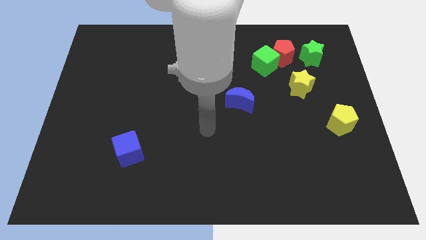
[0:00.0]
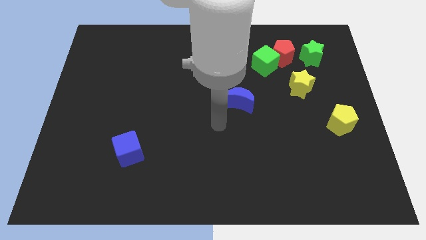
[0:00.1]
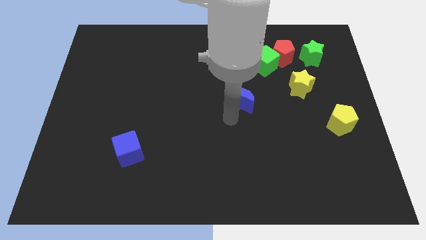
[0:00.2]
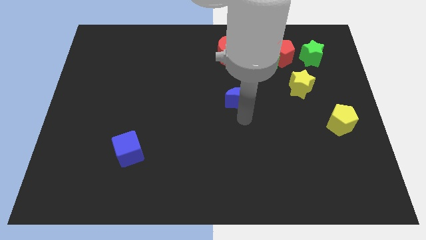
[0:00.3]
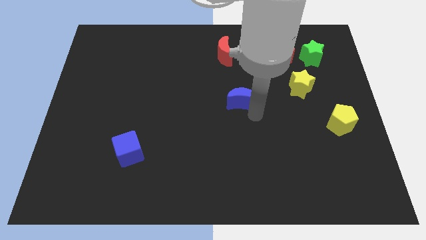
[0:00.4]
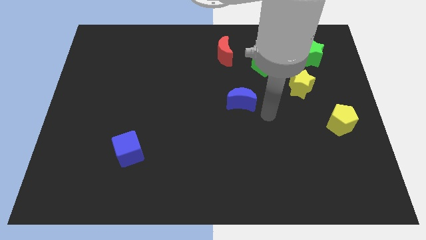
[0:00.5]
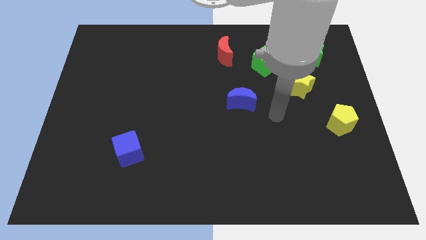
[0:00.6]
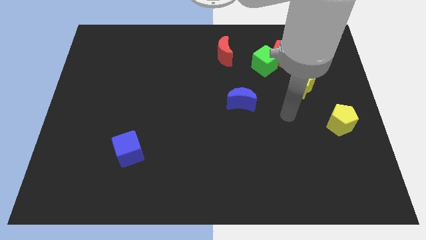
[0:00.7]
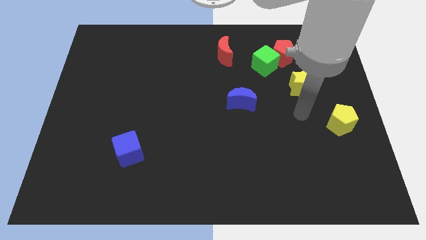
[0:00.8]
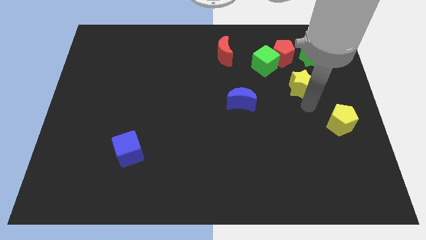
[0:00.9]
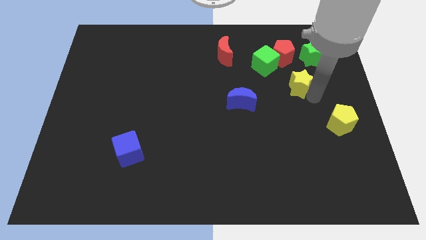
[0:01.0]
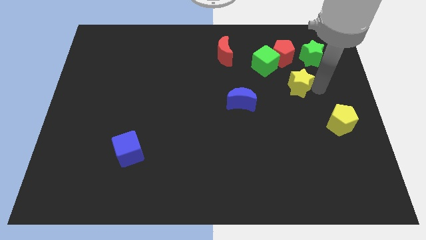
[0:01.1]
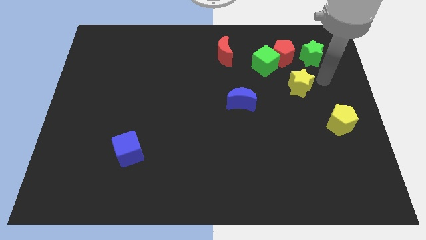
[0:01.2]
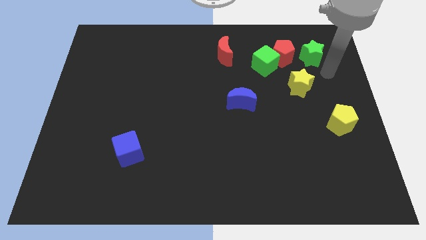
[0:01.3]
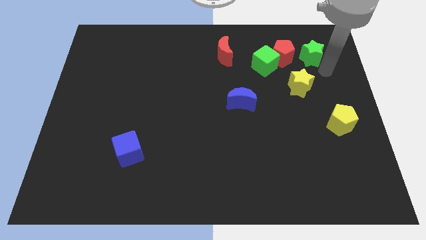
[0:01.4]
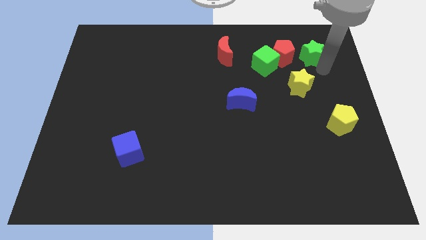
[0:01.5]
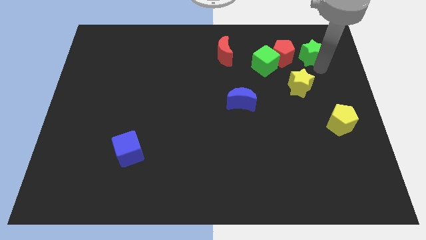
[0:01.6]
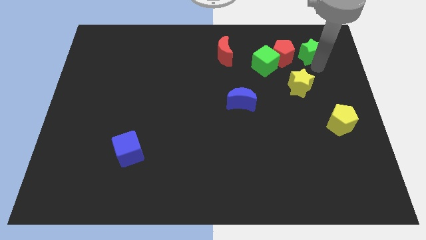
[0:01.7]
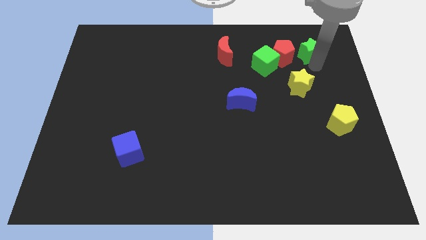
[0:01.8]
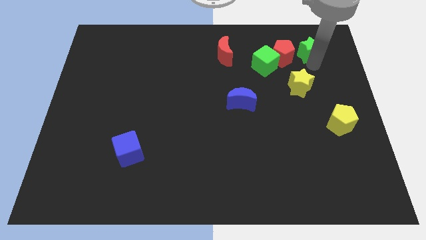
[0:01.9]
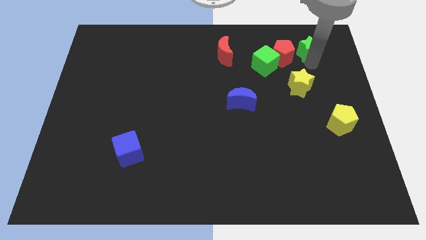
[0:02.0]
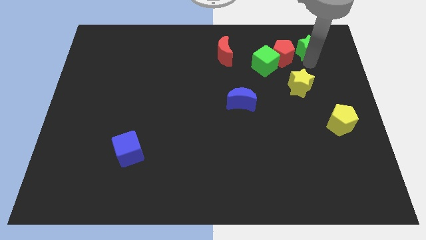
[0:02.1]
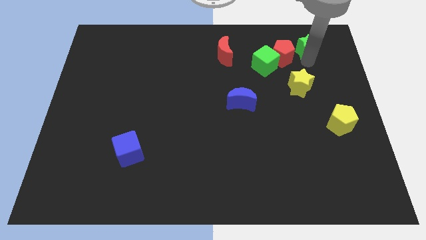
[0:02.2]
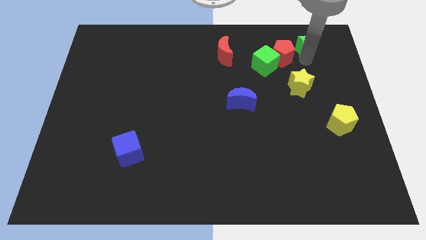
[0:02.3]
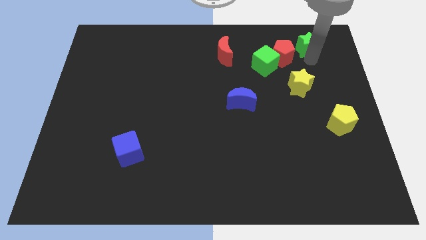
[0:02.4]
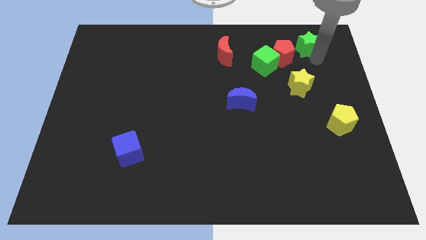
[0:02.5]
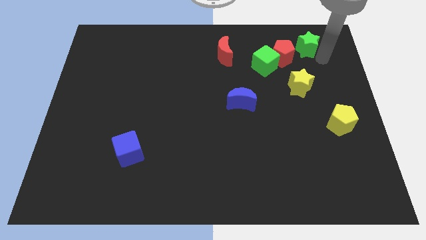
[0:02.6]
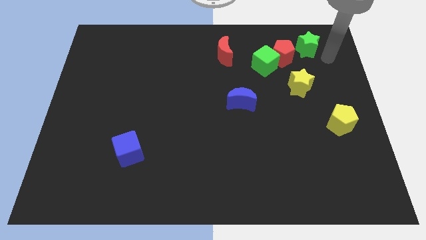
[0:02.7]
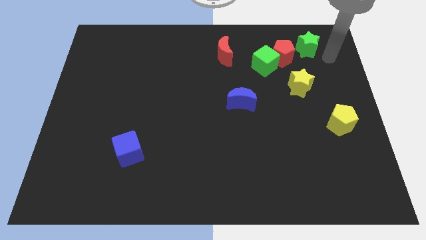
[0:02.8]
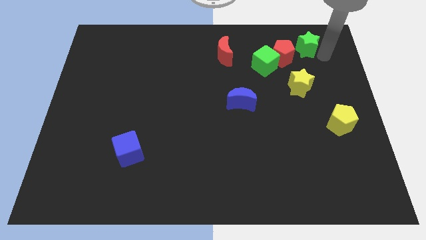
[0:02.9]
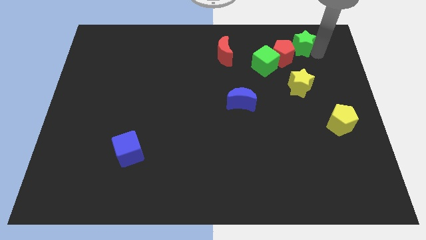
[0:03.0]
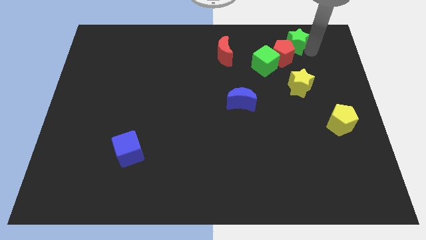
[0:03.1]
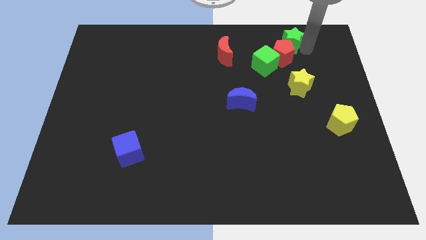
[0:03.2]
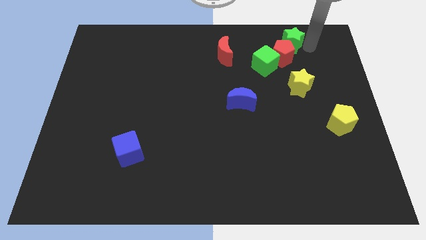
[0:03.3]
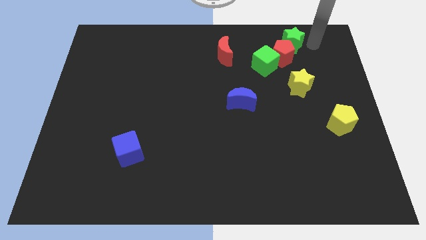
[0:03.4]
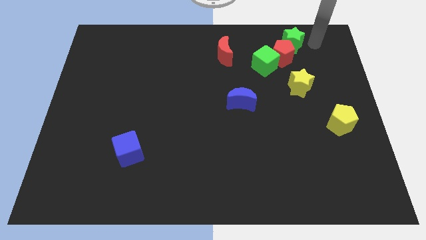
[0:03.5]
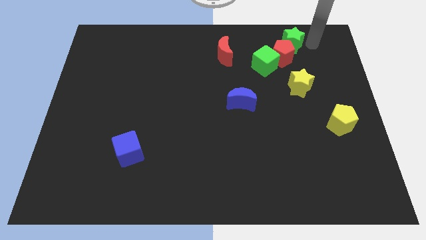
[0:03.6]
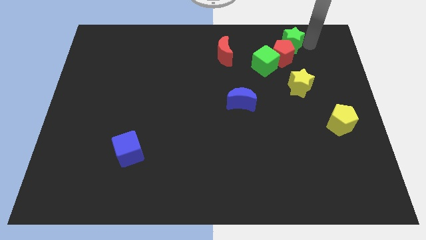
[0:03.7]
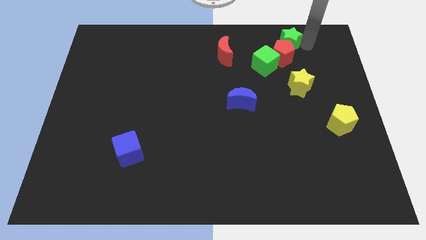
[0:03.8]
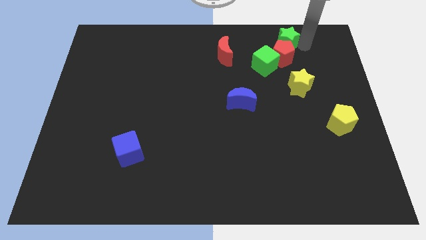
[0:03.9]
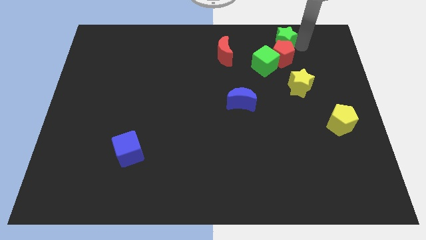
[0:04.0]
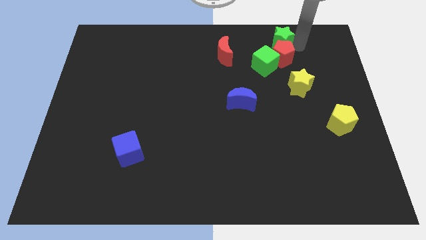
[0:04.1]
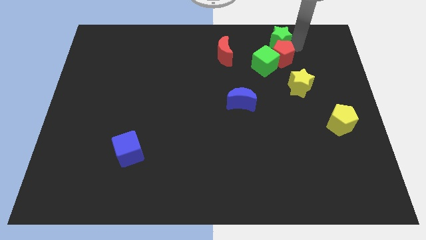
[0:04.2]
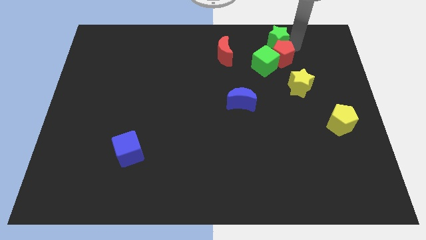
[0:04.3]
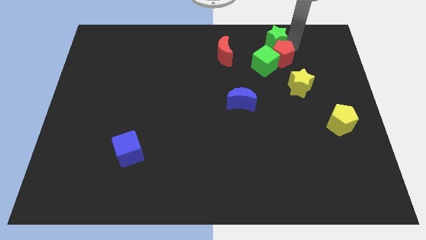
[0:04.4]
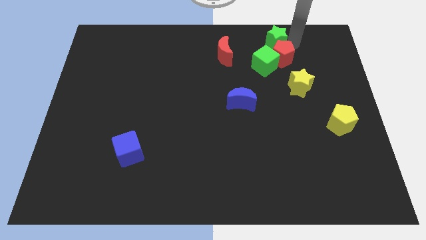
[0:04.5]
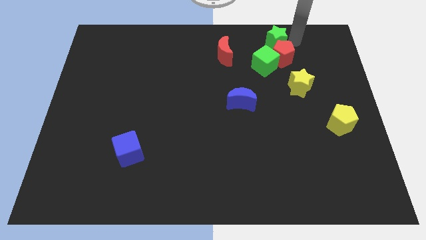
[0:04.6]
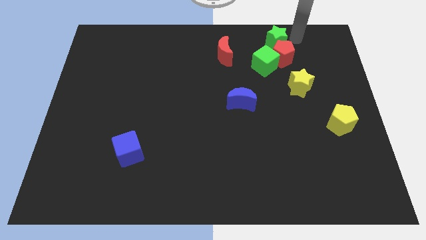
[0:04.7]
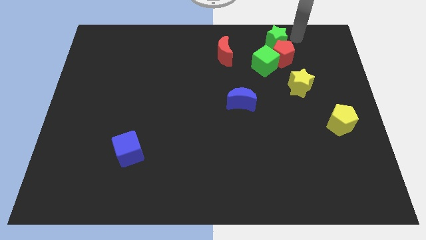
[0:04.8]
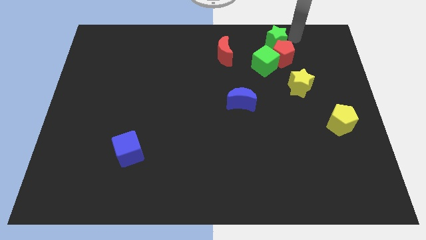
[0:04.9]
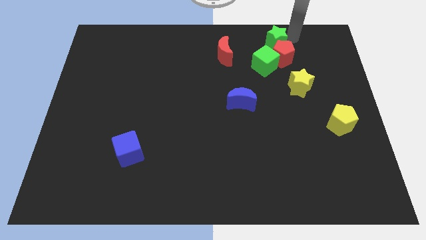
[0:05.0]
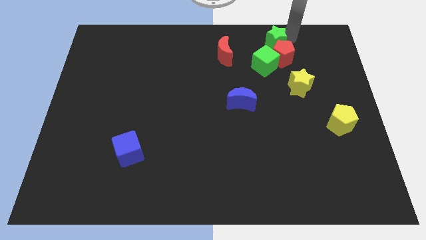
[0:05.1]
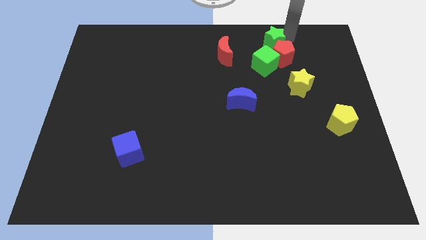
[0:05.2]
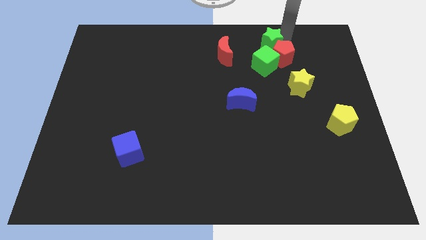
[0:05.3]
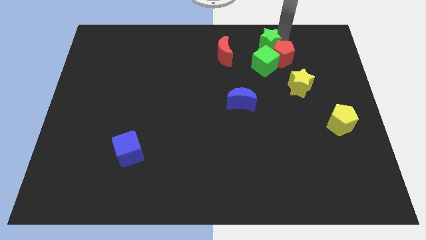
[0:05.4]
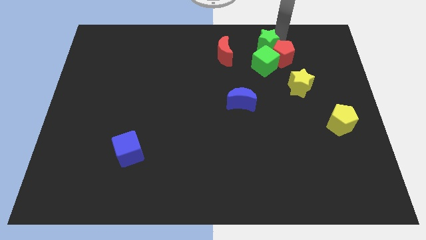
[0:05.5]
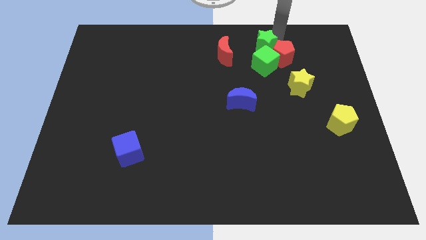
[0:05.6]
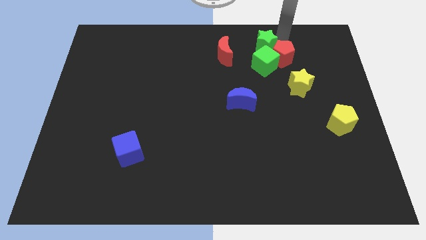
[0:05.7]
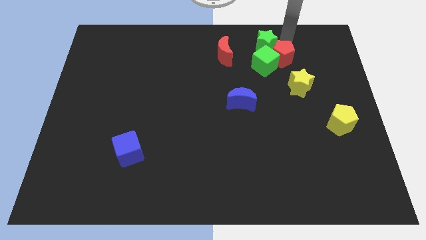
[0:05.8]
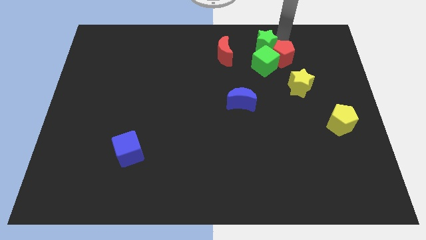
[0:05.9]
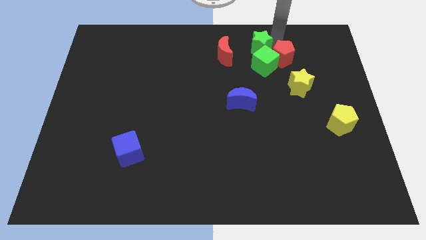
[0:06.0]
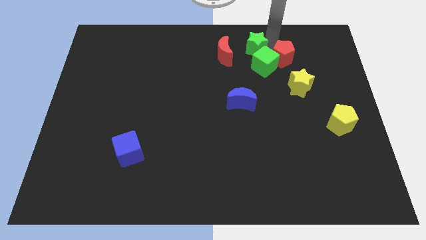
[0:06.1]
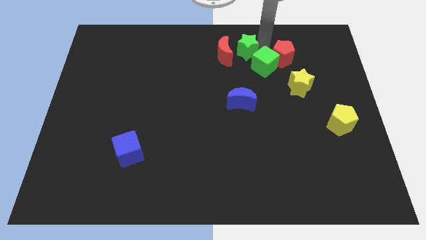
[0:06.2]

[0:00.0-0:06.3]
slide the green star close to the red moon

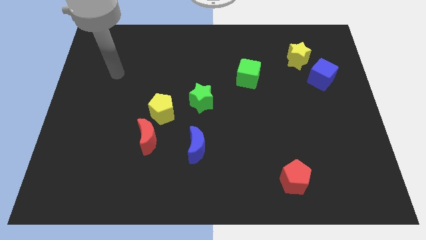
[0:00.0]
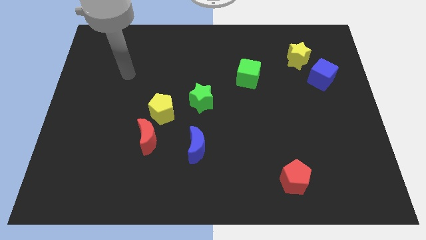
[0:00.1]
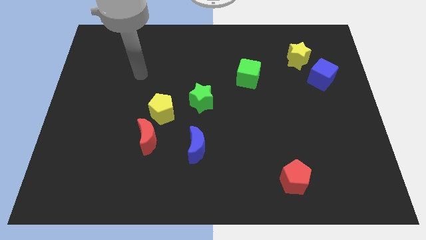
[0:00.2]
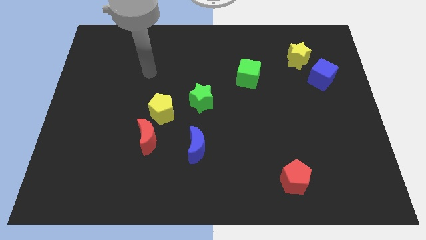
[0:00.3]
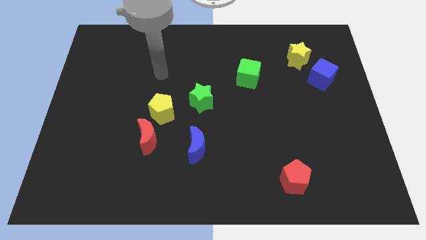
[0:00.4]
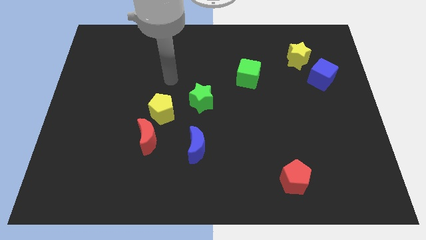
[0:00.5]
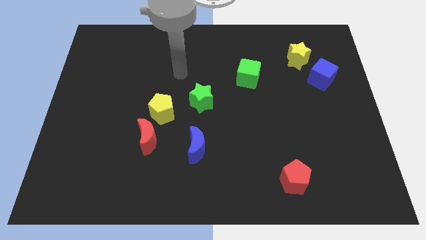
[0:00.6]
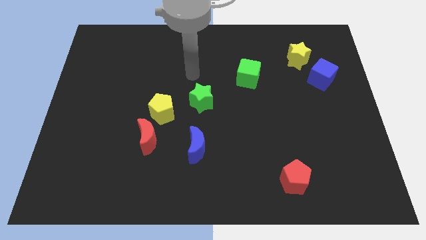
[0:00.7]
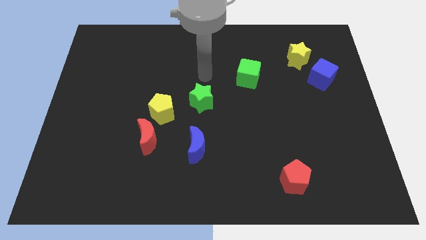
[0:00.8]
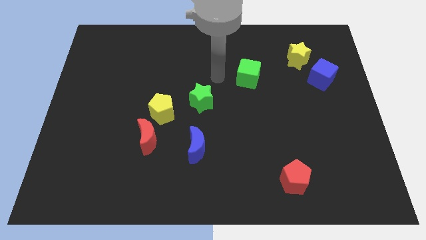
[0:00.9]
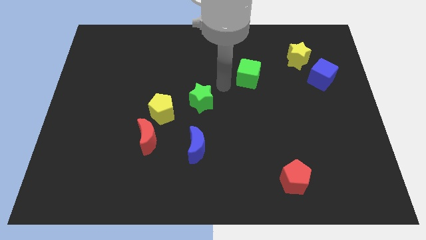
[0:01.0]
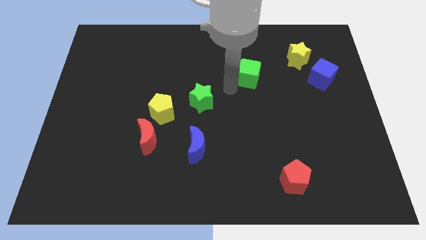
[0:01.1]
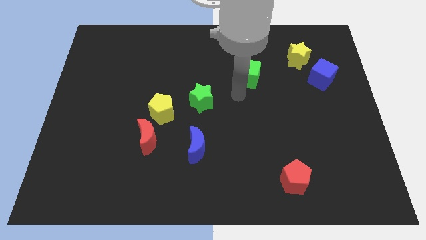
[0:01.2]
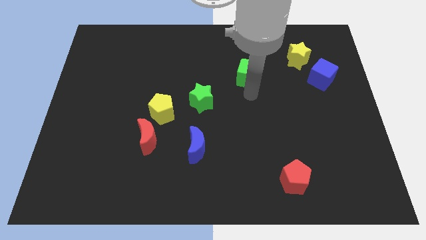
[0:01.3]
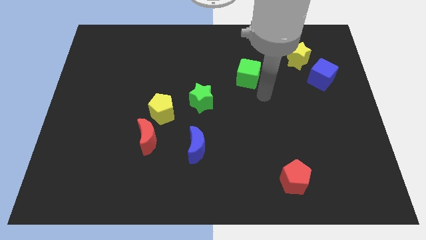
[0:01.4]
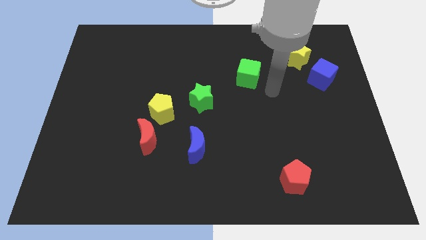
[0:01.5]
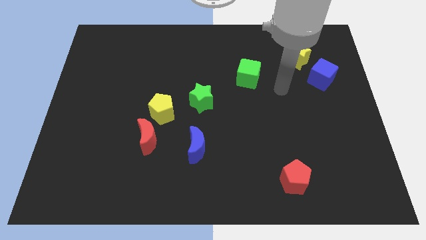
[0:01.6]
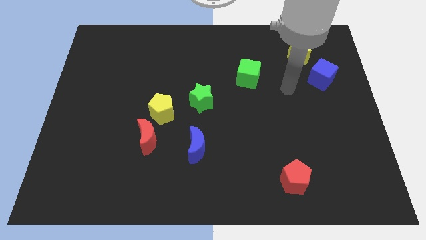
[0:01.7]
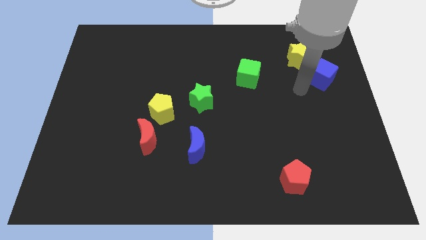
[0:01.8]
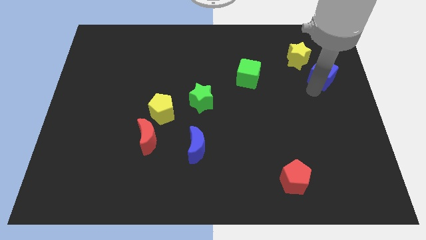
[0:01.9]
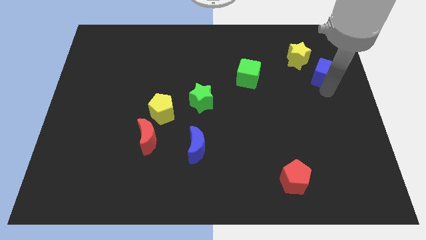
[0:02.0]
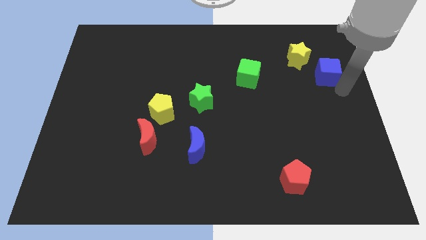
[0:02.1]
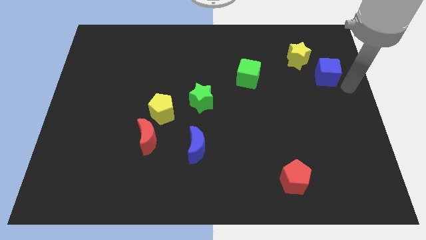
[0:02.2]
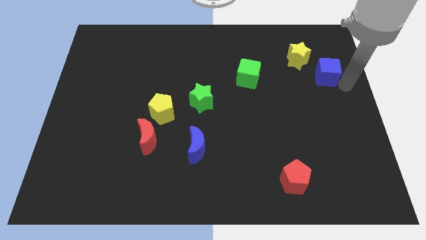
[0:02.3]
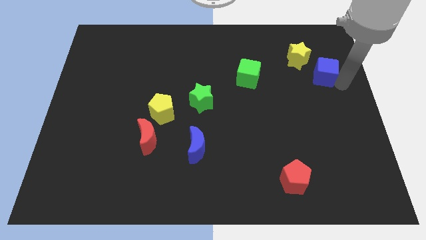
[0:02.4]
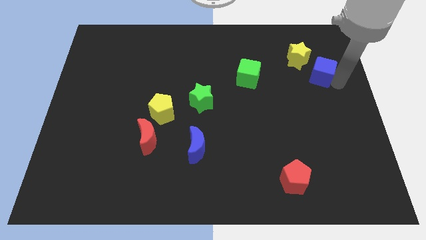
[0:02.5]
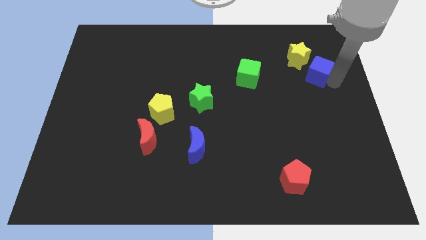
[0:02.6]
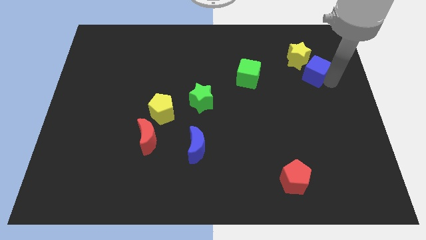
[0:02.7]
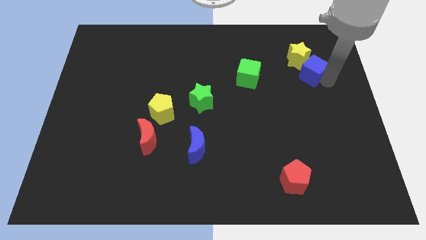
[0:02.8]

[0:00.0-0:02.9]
put the blue cube towards the yellow star
